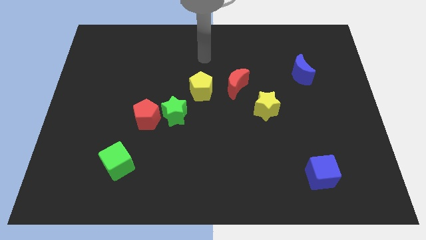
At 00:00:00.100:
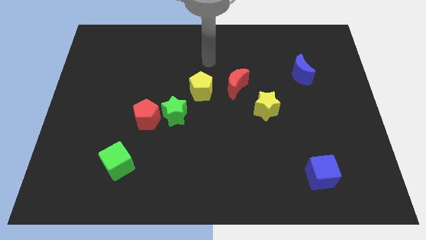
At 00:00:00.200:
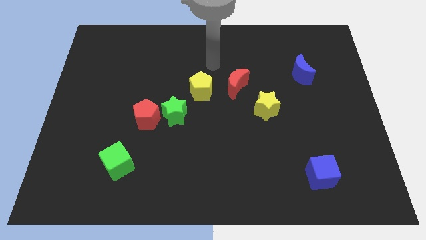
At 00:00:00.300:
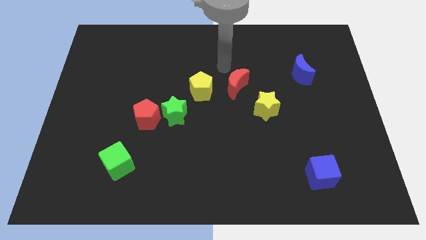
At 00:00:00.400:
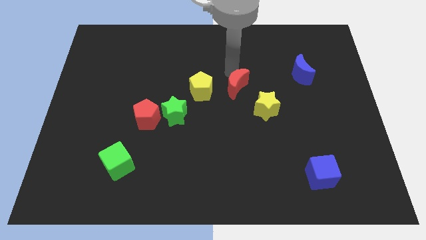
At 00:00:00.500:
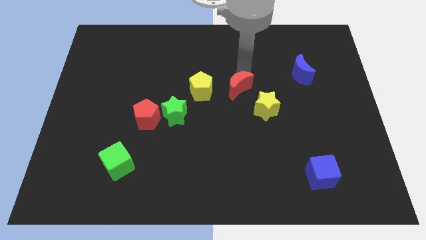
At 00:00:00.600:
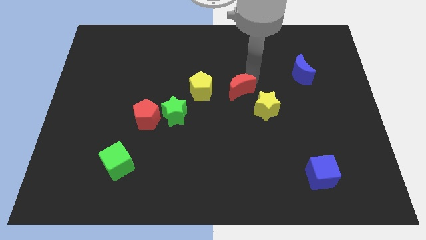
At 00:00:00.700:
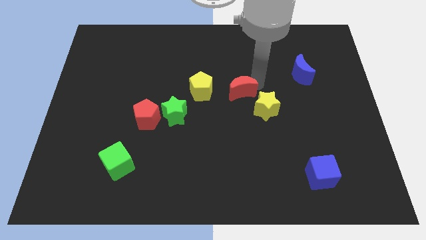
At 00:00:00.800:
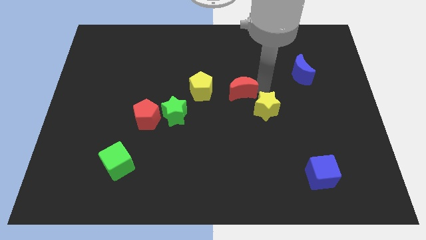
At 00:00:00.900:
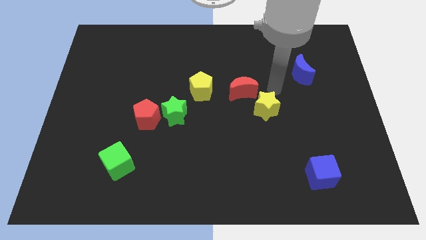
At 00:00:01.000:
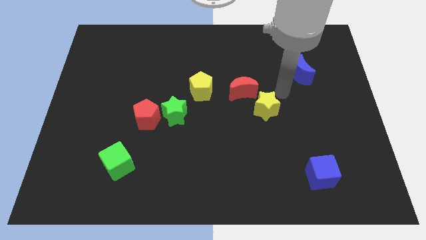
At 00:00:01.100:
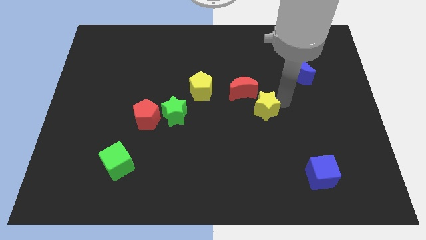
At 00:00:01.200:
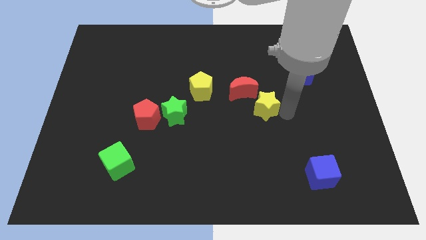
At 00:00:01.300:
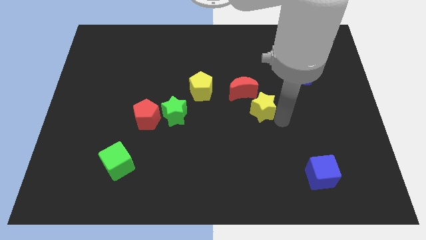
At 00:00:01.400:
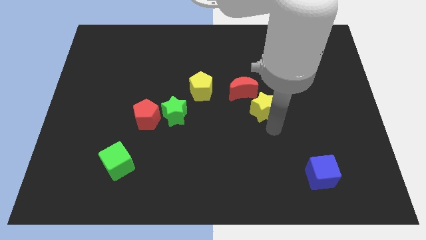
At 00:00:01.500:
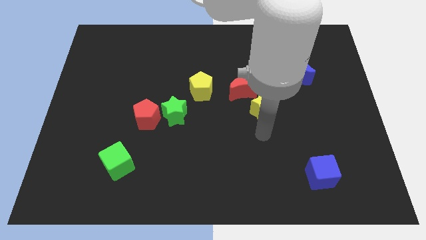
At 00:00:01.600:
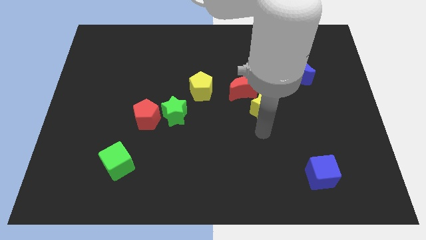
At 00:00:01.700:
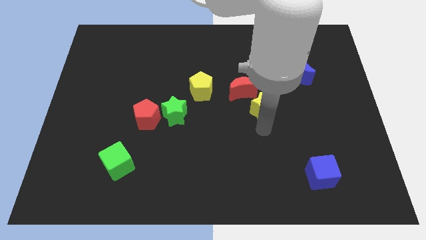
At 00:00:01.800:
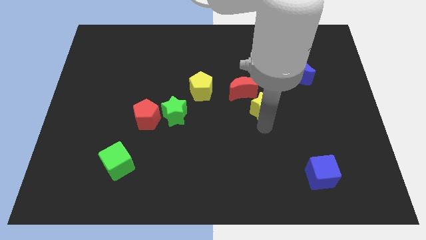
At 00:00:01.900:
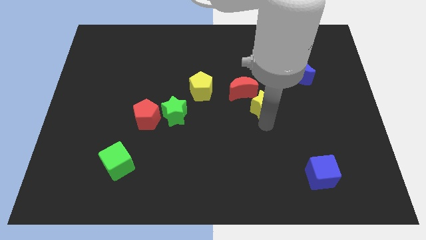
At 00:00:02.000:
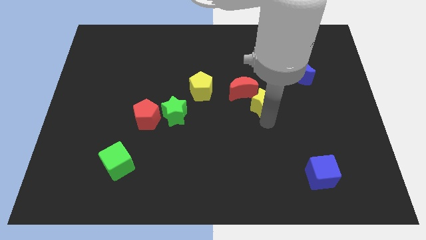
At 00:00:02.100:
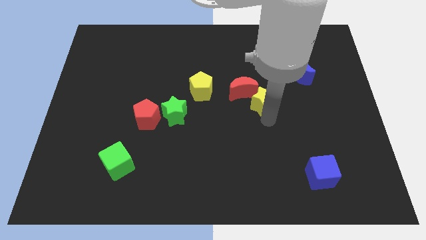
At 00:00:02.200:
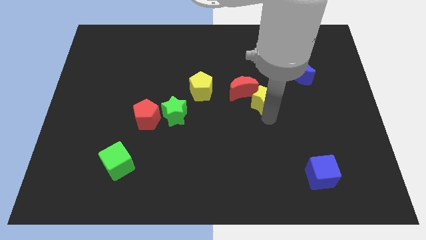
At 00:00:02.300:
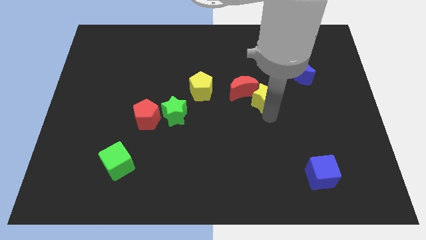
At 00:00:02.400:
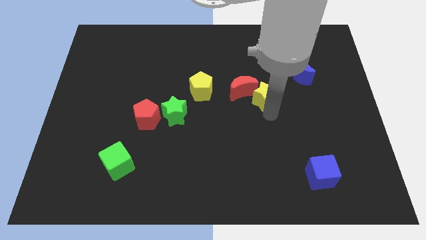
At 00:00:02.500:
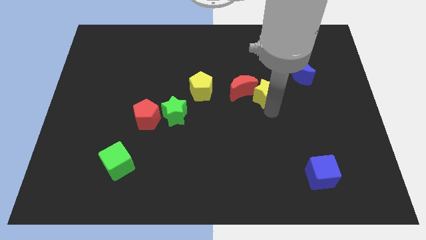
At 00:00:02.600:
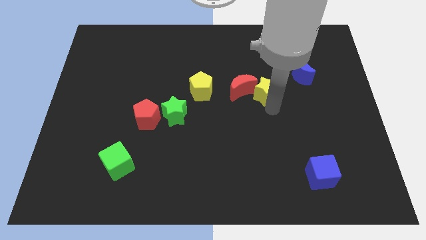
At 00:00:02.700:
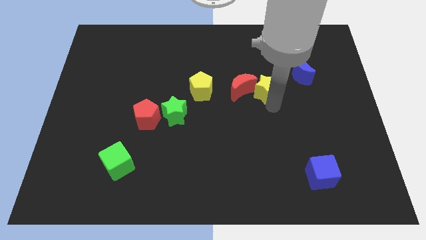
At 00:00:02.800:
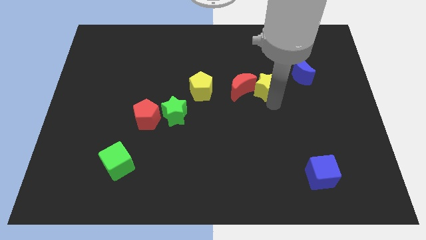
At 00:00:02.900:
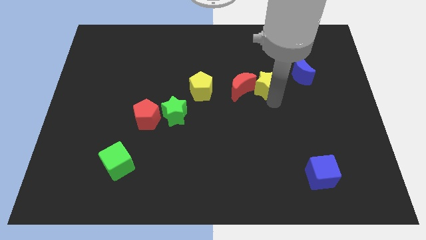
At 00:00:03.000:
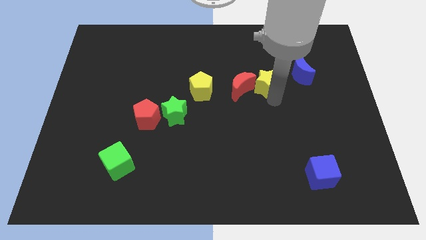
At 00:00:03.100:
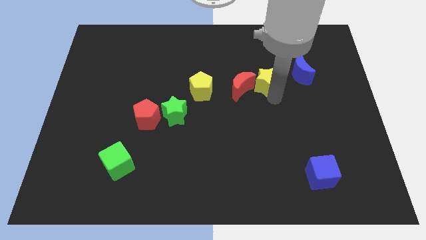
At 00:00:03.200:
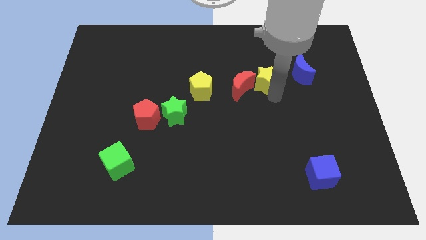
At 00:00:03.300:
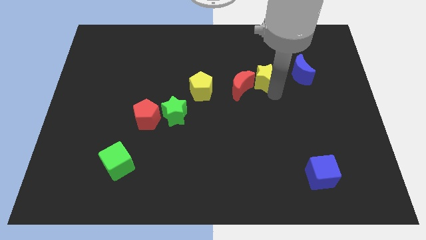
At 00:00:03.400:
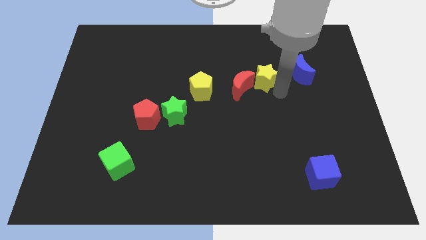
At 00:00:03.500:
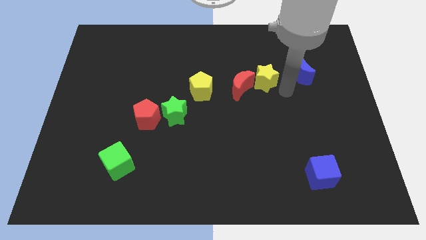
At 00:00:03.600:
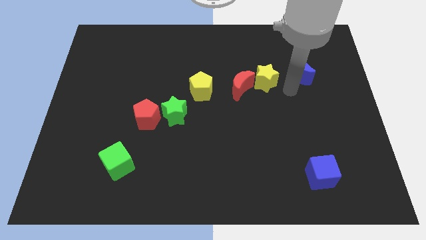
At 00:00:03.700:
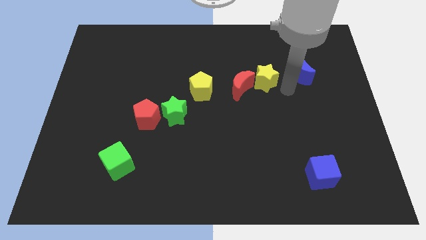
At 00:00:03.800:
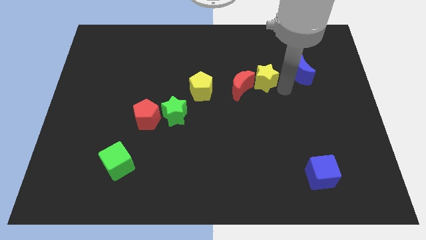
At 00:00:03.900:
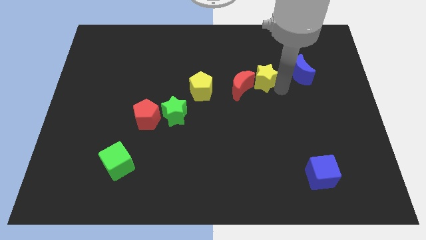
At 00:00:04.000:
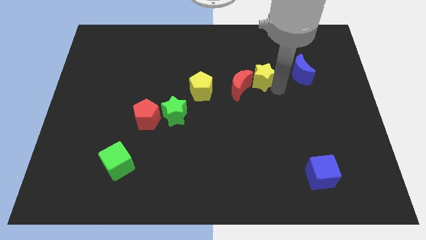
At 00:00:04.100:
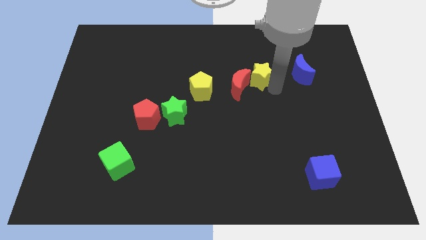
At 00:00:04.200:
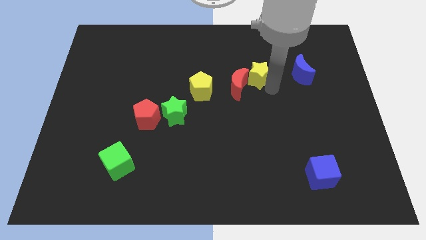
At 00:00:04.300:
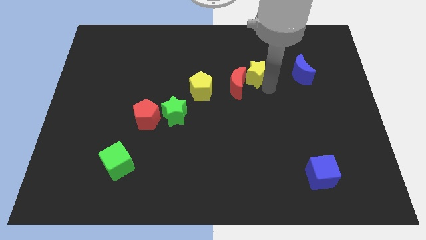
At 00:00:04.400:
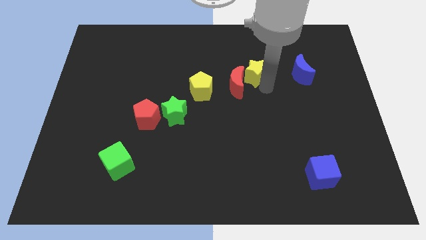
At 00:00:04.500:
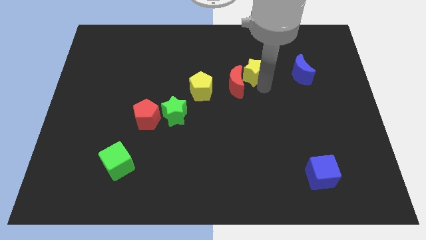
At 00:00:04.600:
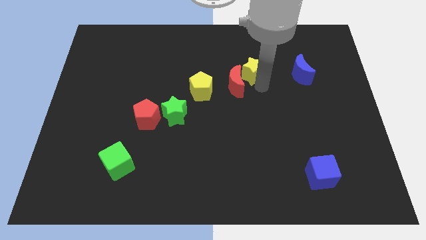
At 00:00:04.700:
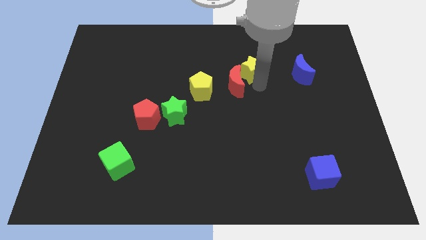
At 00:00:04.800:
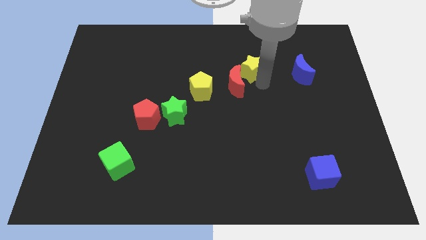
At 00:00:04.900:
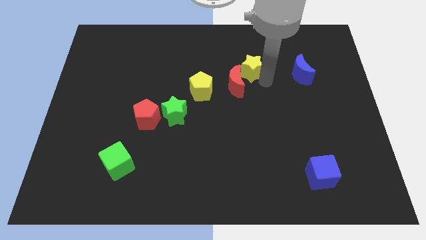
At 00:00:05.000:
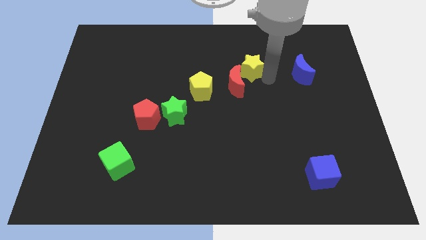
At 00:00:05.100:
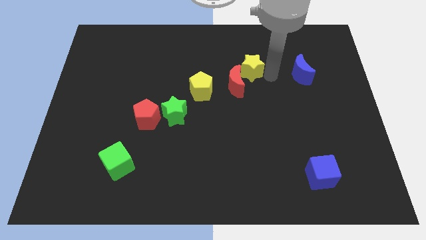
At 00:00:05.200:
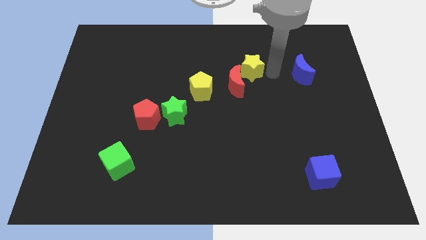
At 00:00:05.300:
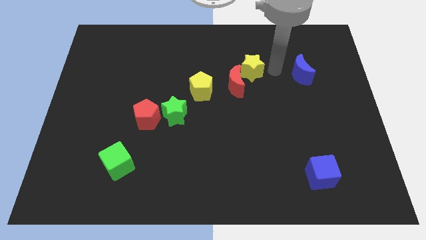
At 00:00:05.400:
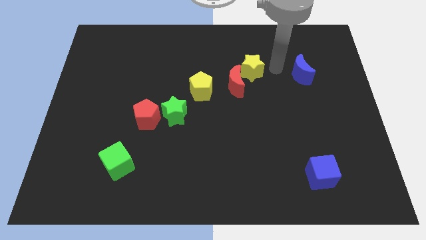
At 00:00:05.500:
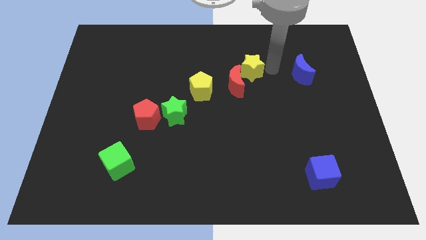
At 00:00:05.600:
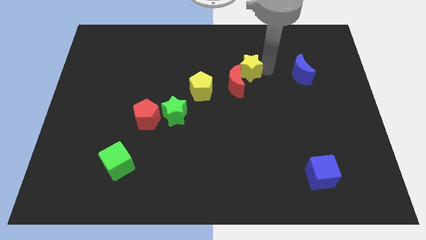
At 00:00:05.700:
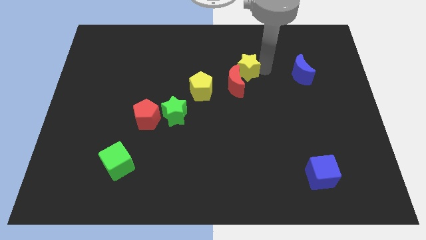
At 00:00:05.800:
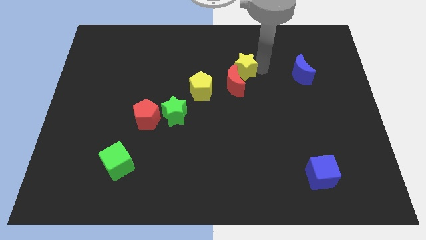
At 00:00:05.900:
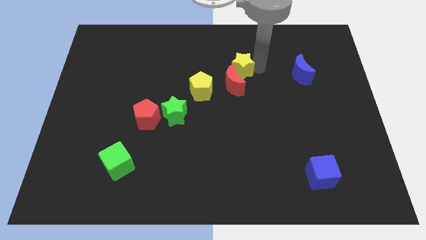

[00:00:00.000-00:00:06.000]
move the yellow star diagonally up and to the right of the yellow pentagon
